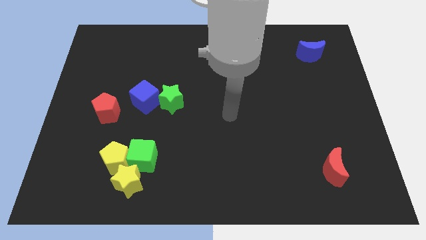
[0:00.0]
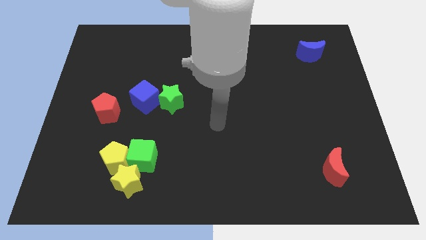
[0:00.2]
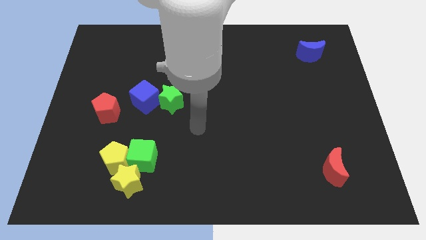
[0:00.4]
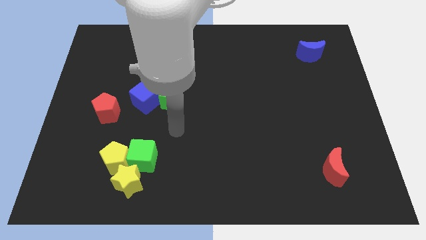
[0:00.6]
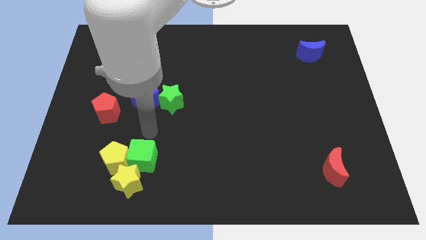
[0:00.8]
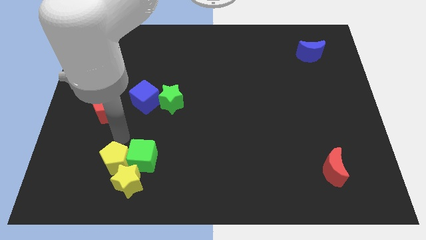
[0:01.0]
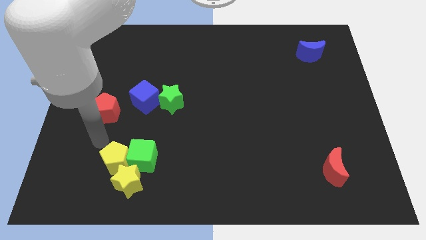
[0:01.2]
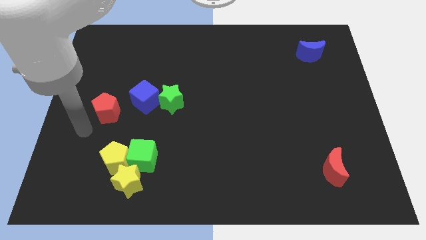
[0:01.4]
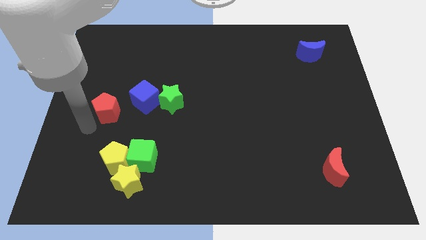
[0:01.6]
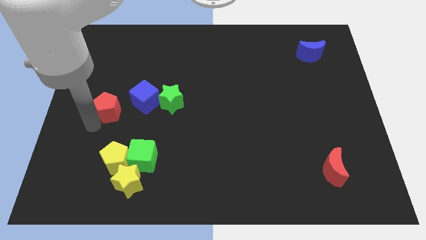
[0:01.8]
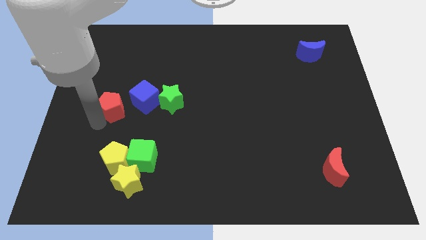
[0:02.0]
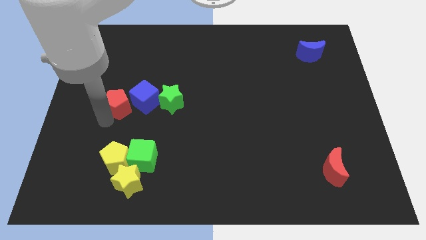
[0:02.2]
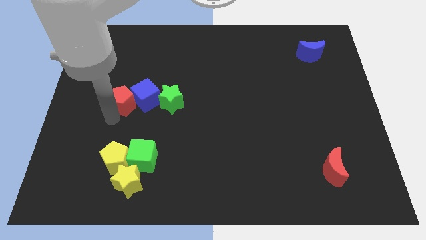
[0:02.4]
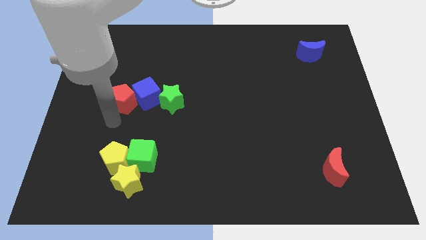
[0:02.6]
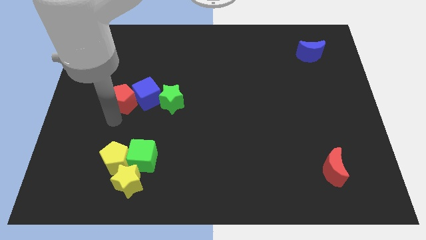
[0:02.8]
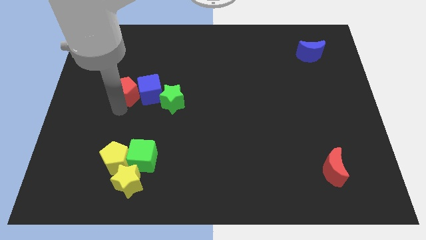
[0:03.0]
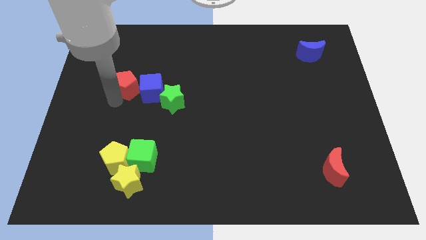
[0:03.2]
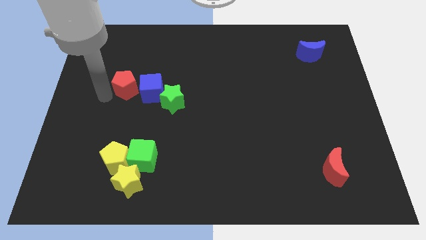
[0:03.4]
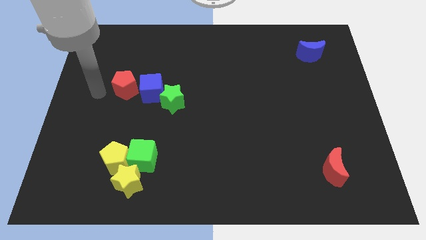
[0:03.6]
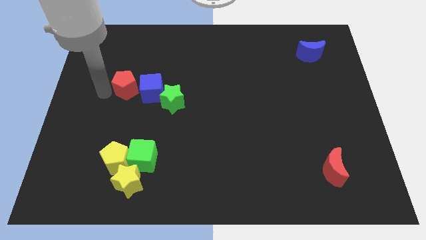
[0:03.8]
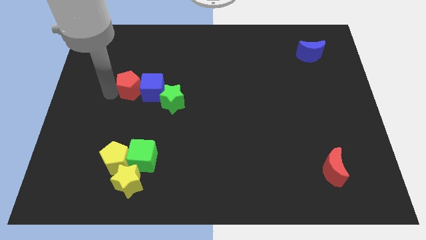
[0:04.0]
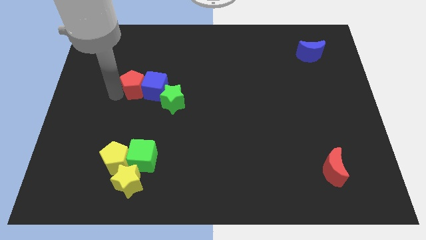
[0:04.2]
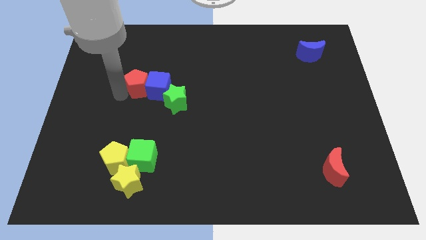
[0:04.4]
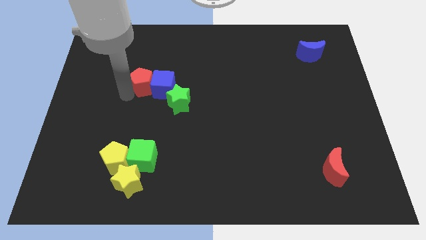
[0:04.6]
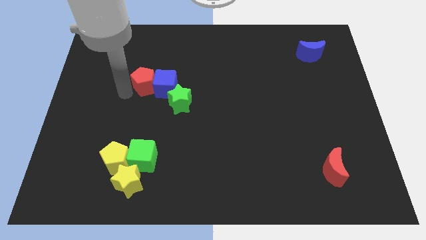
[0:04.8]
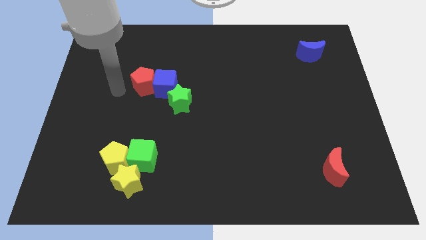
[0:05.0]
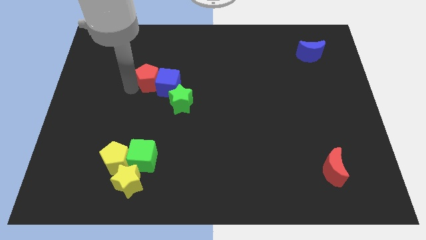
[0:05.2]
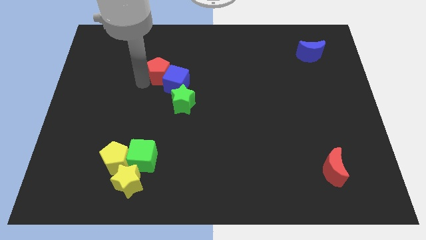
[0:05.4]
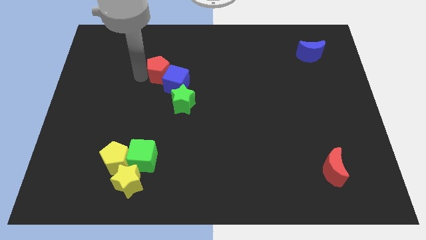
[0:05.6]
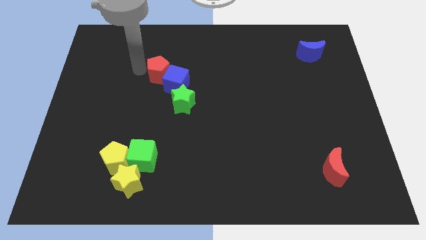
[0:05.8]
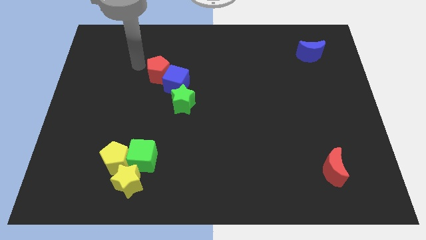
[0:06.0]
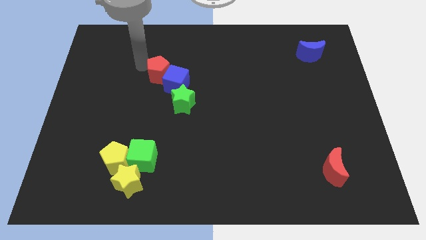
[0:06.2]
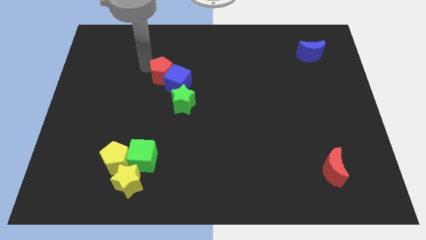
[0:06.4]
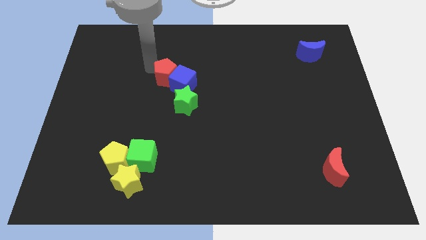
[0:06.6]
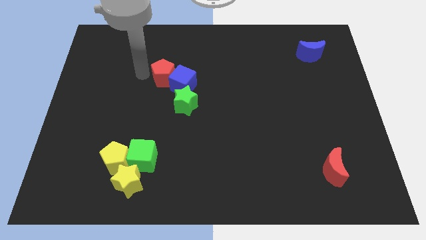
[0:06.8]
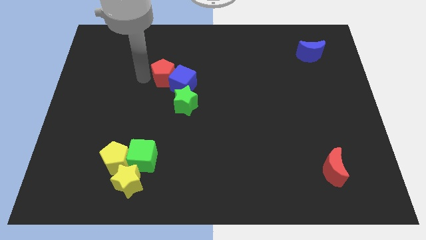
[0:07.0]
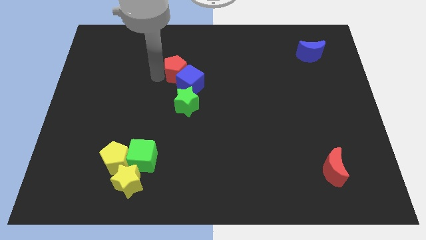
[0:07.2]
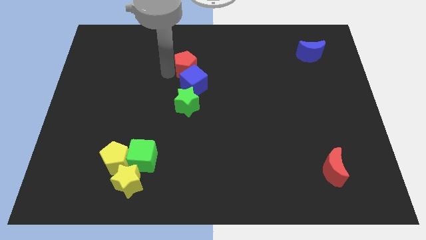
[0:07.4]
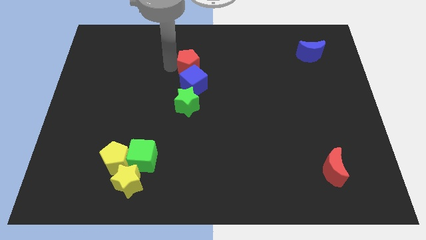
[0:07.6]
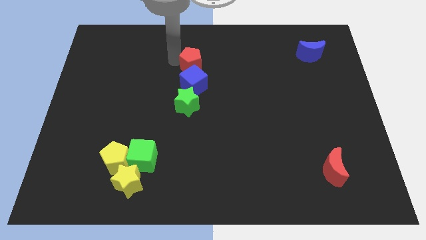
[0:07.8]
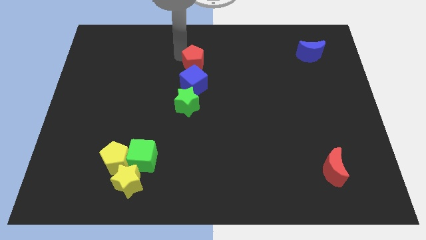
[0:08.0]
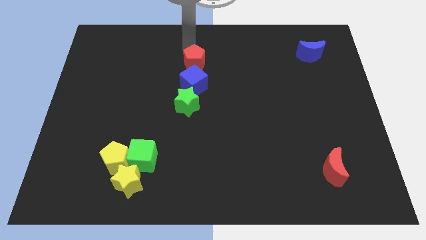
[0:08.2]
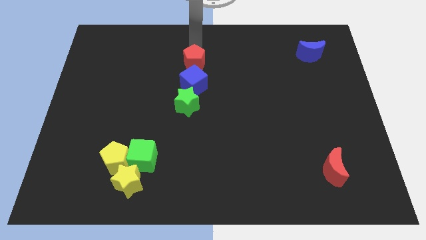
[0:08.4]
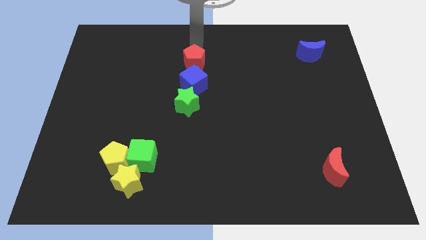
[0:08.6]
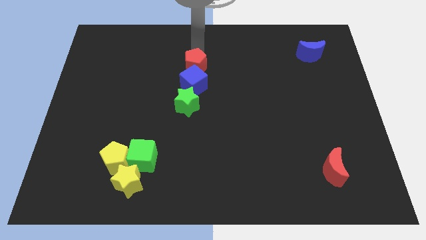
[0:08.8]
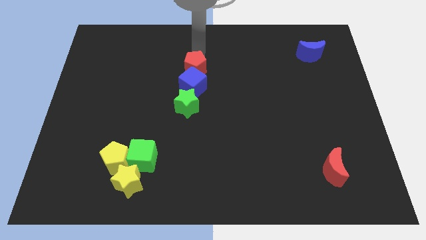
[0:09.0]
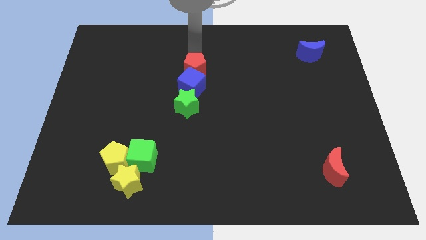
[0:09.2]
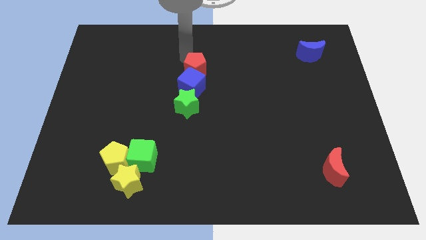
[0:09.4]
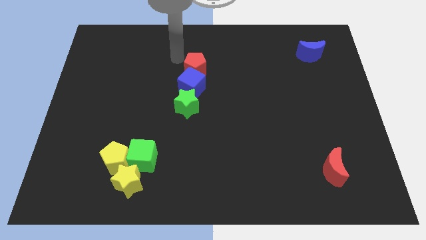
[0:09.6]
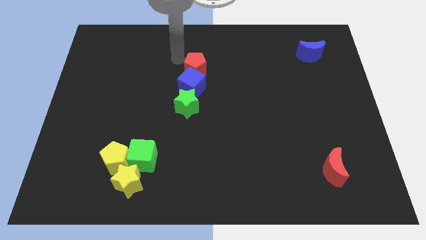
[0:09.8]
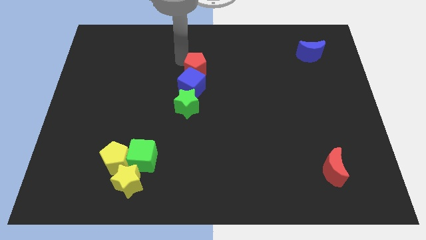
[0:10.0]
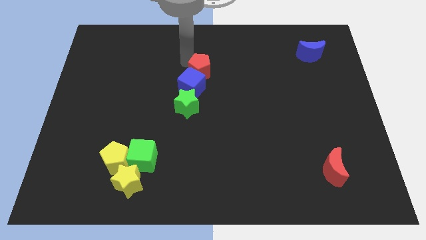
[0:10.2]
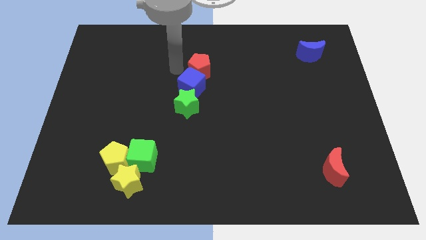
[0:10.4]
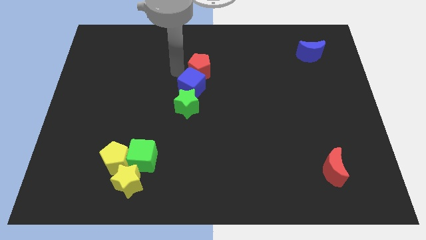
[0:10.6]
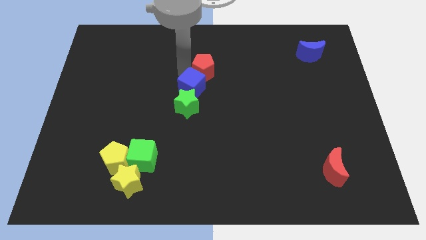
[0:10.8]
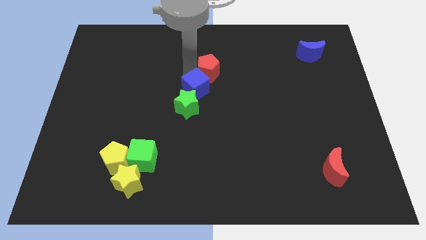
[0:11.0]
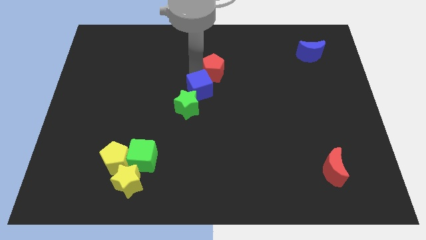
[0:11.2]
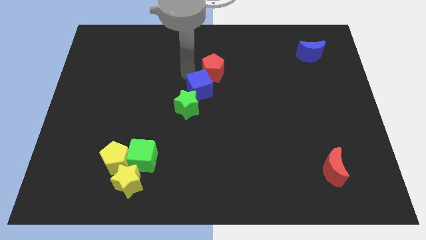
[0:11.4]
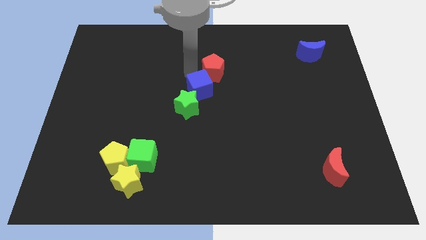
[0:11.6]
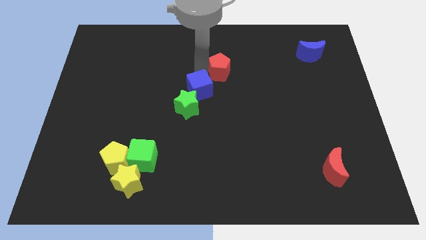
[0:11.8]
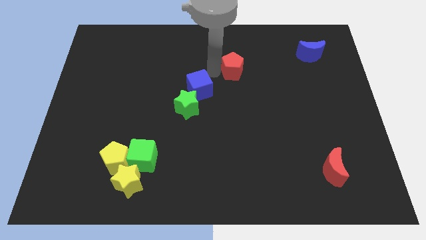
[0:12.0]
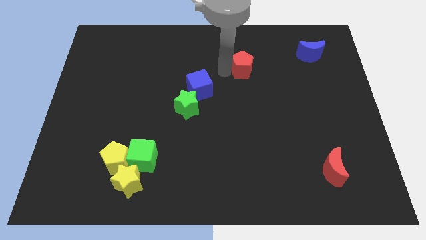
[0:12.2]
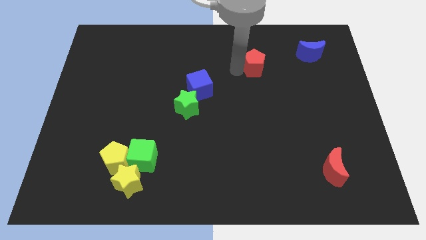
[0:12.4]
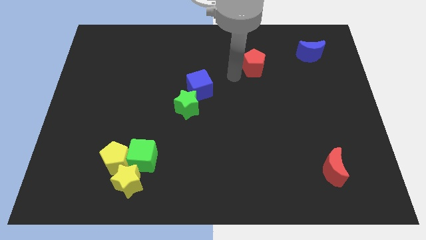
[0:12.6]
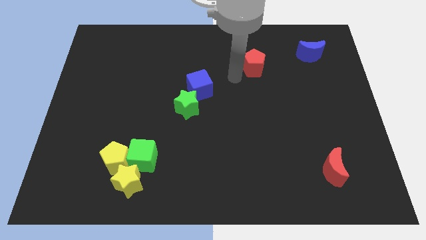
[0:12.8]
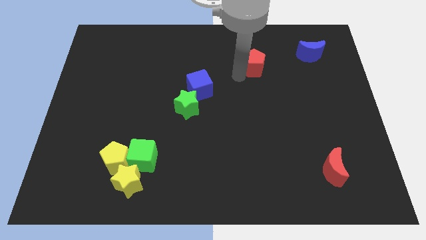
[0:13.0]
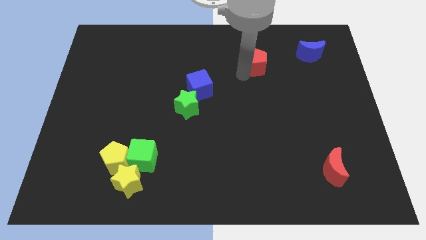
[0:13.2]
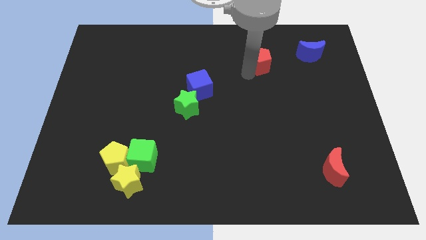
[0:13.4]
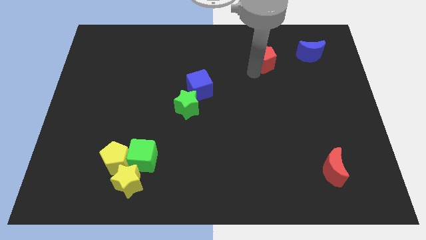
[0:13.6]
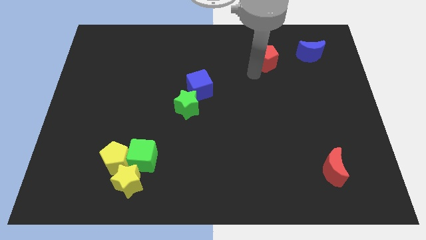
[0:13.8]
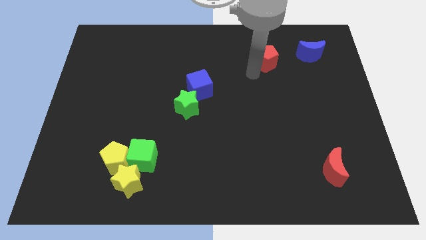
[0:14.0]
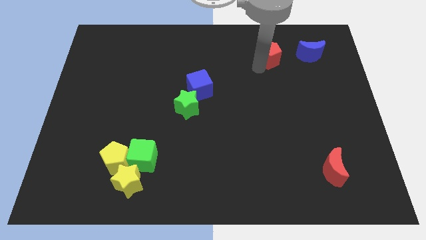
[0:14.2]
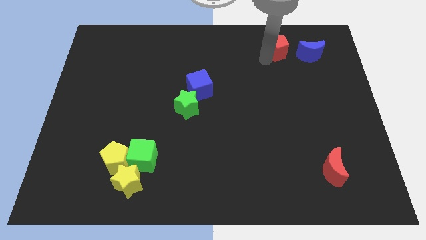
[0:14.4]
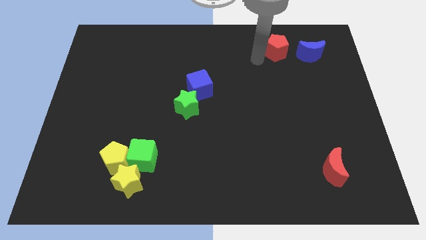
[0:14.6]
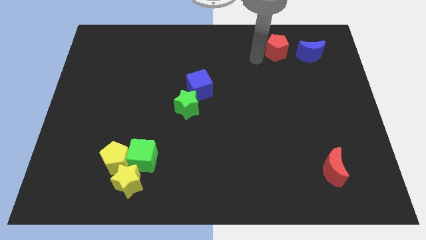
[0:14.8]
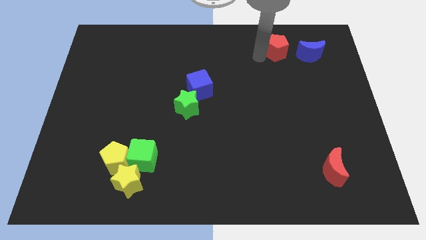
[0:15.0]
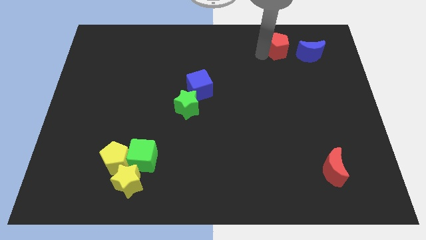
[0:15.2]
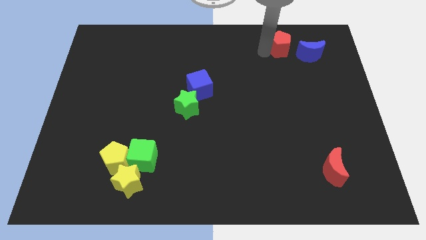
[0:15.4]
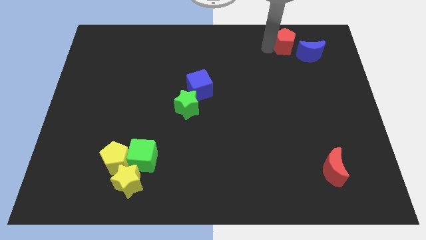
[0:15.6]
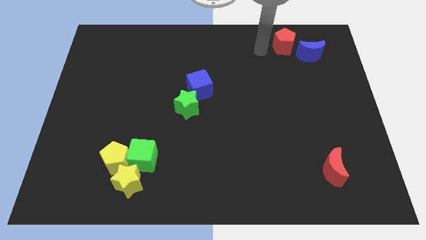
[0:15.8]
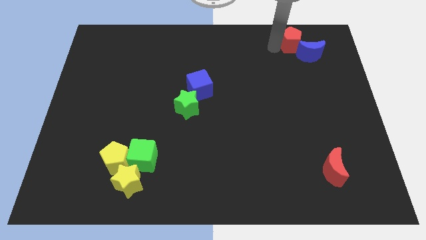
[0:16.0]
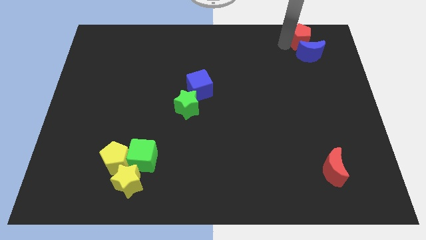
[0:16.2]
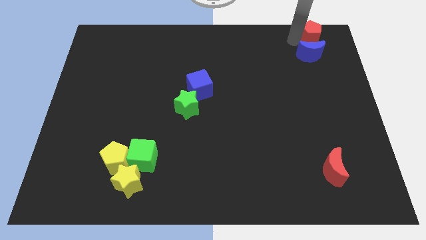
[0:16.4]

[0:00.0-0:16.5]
push the red pentagon to the upper right corner
